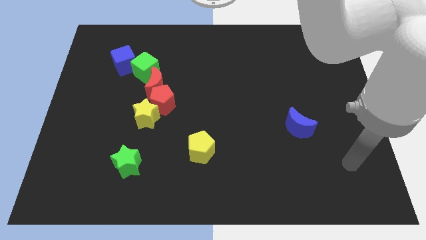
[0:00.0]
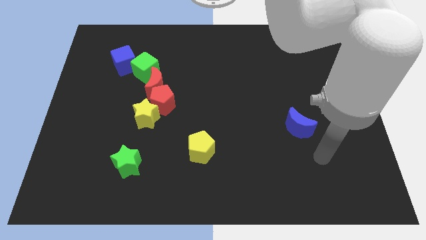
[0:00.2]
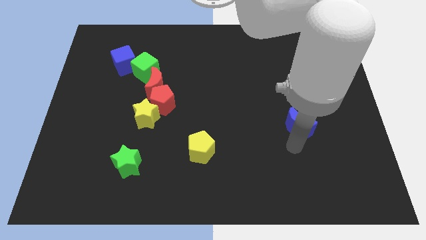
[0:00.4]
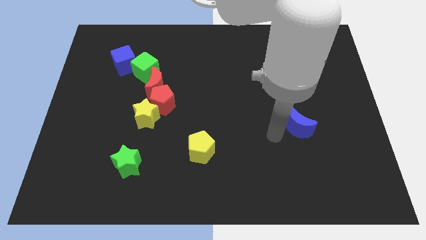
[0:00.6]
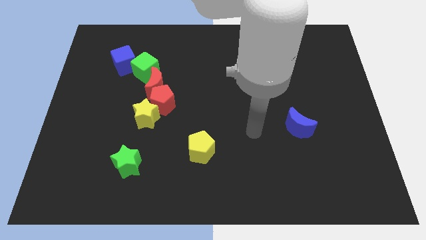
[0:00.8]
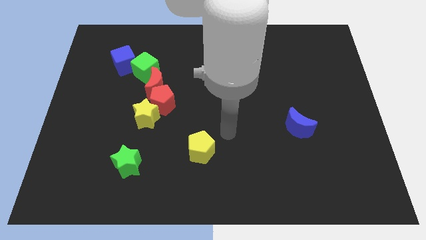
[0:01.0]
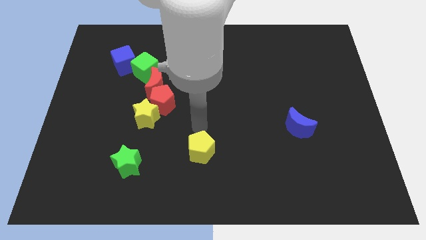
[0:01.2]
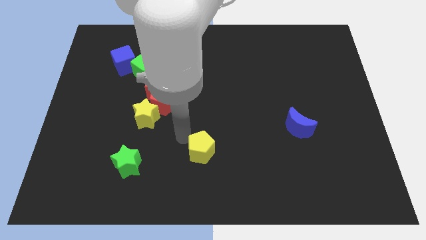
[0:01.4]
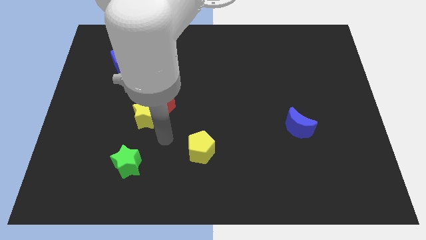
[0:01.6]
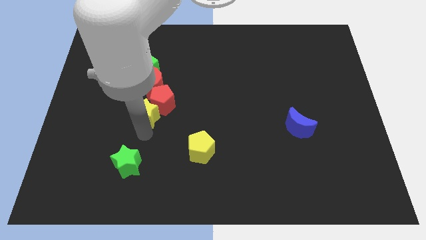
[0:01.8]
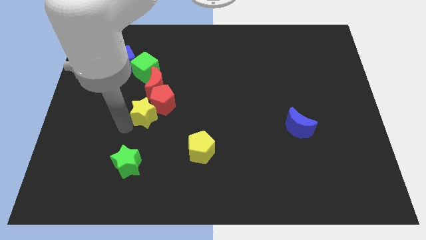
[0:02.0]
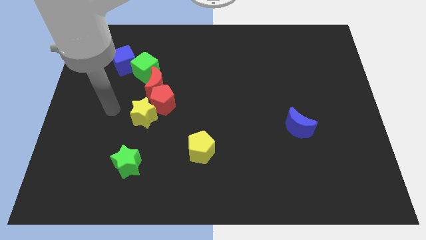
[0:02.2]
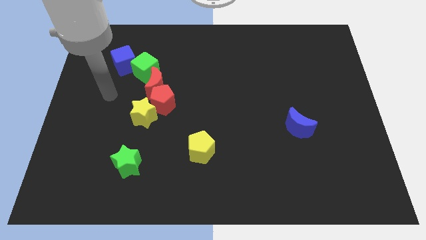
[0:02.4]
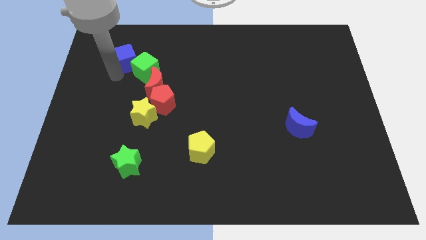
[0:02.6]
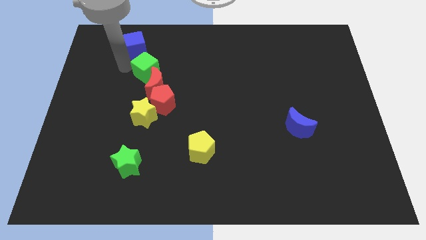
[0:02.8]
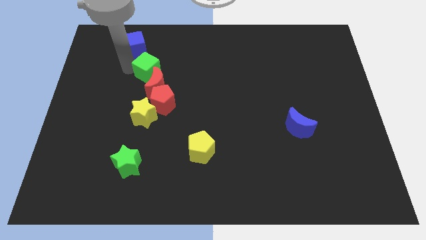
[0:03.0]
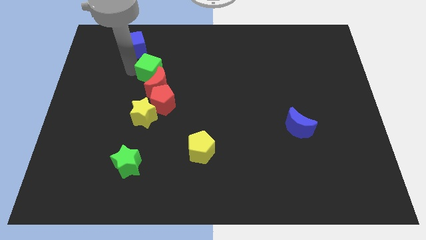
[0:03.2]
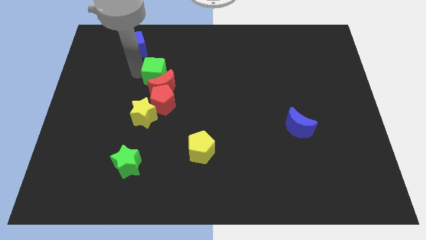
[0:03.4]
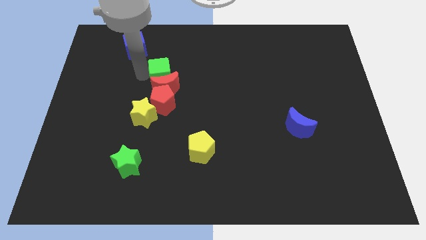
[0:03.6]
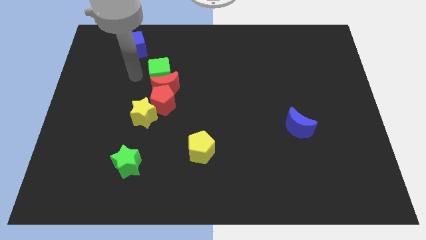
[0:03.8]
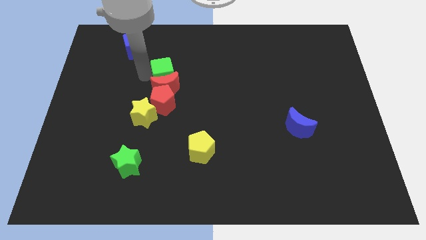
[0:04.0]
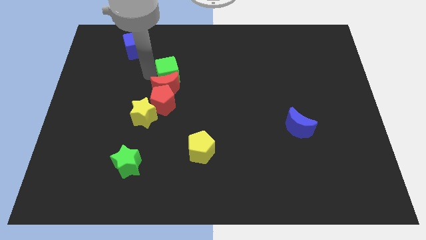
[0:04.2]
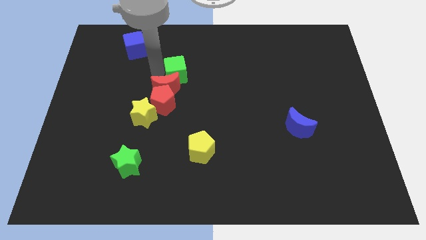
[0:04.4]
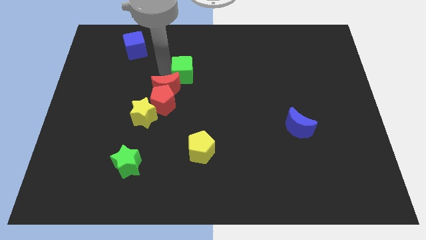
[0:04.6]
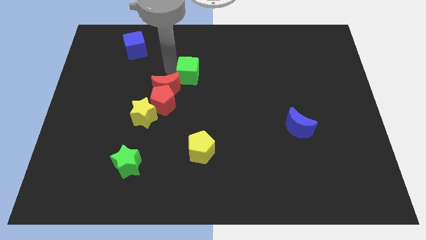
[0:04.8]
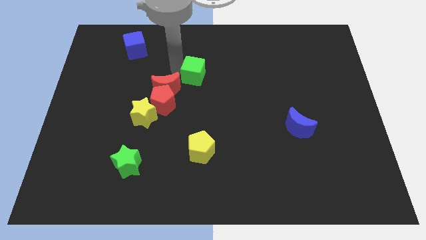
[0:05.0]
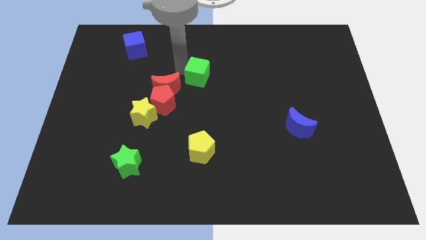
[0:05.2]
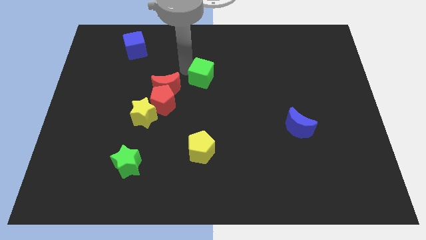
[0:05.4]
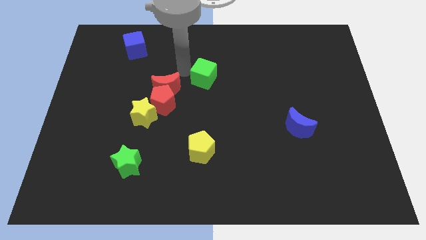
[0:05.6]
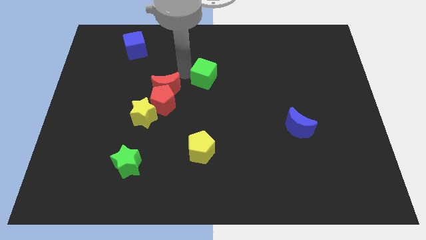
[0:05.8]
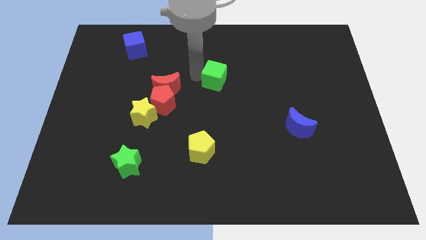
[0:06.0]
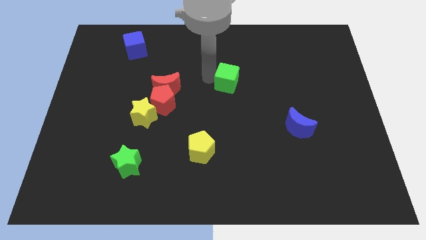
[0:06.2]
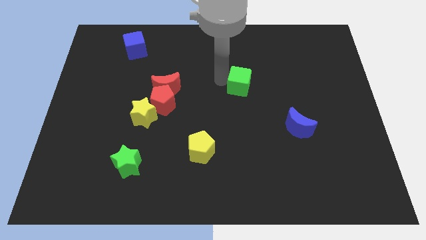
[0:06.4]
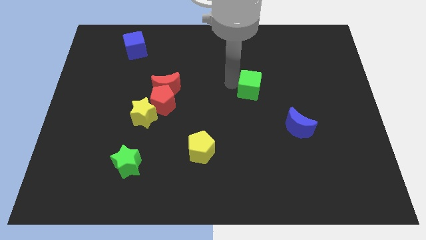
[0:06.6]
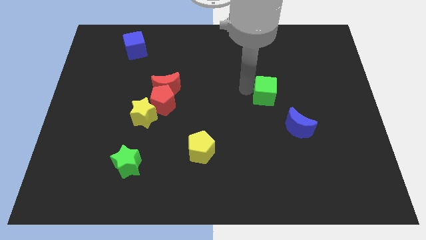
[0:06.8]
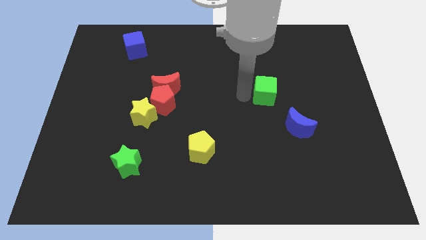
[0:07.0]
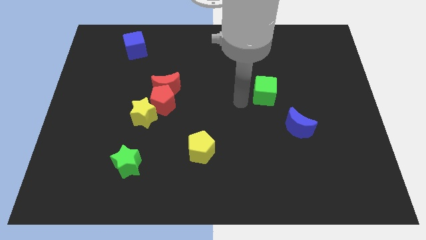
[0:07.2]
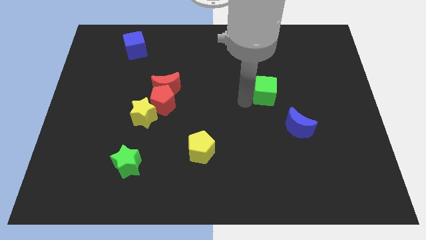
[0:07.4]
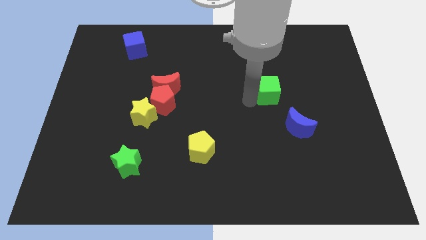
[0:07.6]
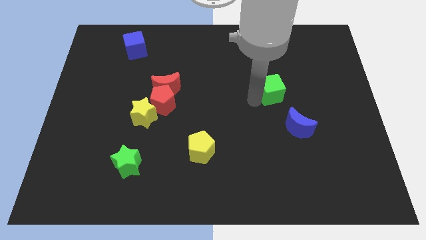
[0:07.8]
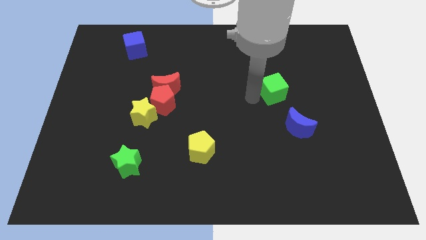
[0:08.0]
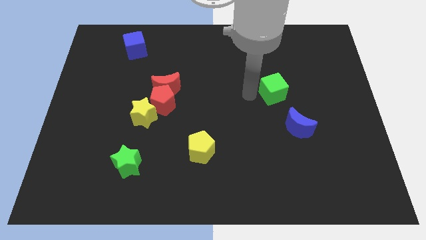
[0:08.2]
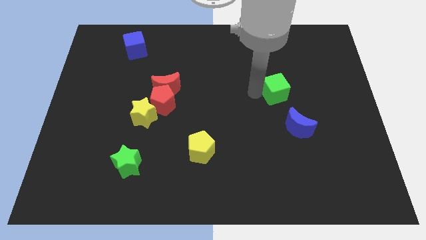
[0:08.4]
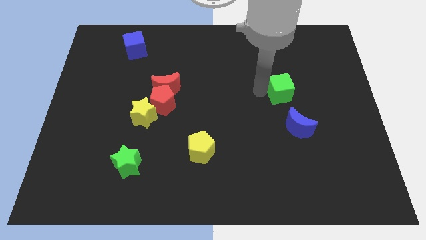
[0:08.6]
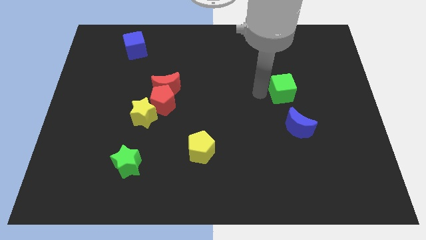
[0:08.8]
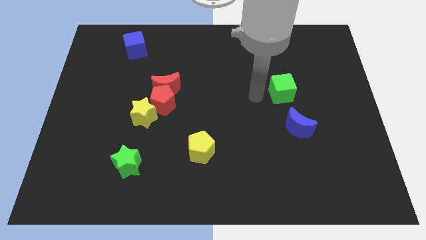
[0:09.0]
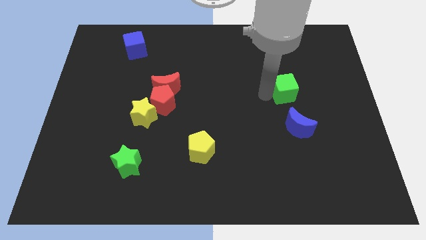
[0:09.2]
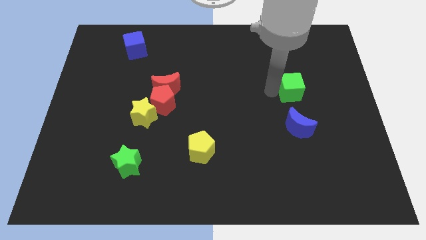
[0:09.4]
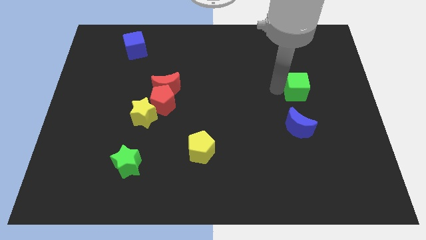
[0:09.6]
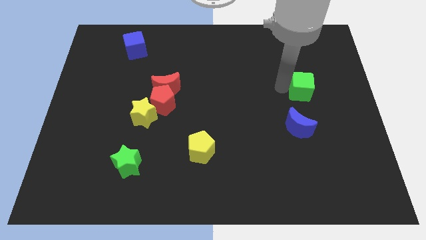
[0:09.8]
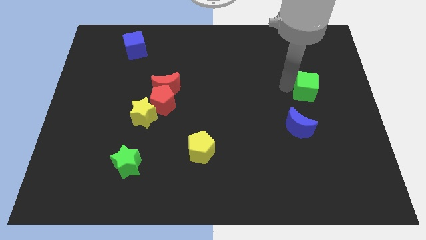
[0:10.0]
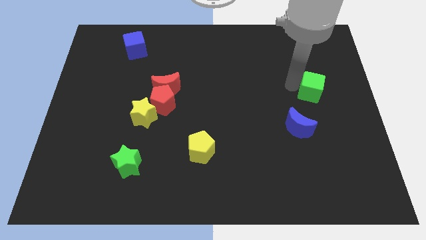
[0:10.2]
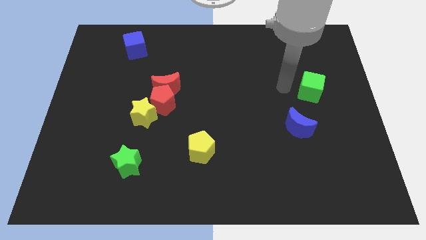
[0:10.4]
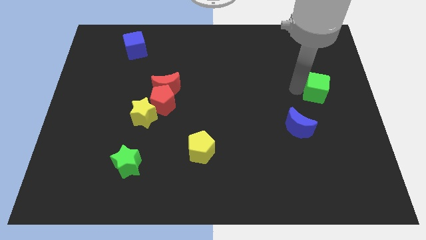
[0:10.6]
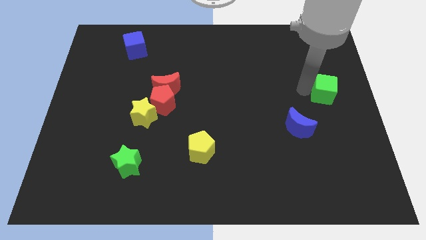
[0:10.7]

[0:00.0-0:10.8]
put the green cube to the right side of the board

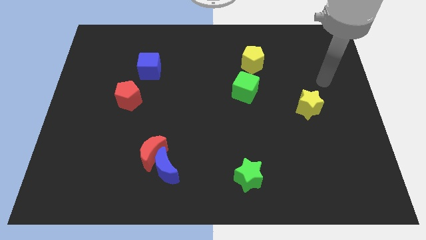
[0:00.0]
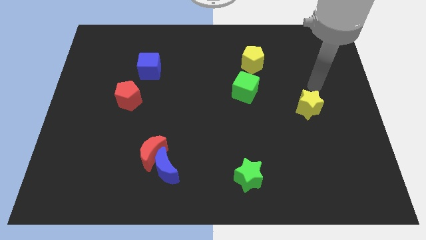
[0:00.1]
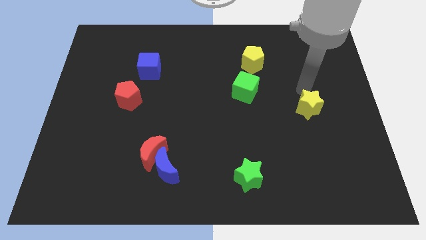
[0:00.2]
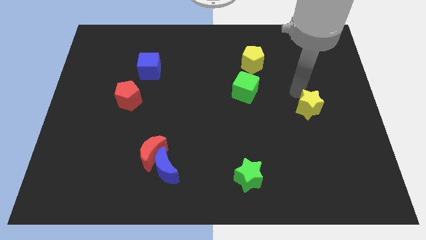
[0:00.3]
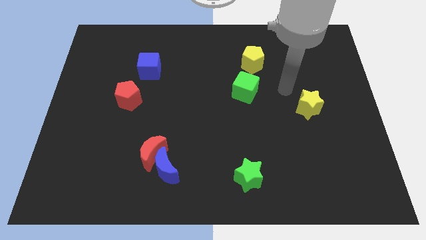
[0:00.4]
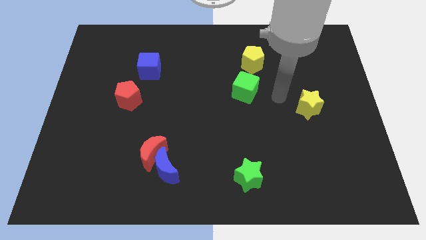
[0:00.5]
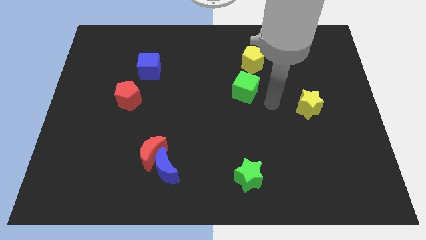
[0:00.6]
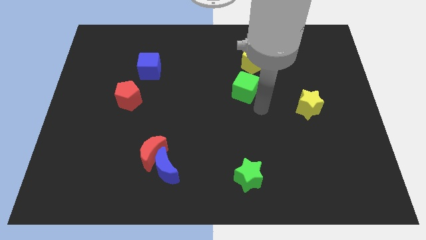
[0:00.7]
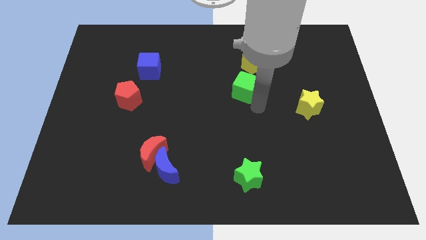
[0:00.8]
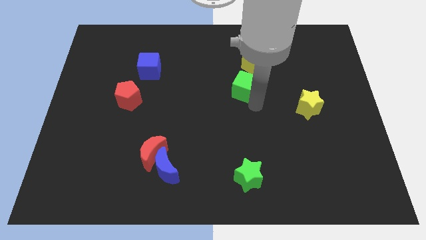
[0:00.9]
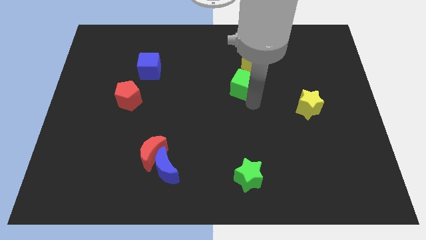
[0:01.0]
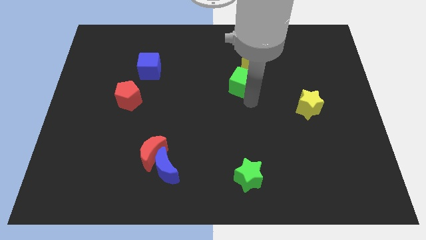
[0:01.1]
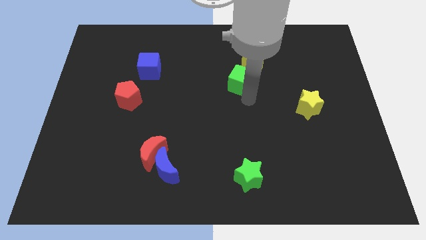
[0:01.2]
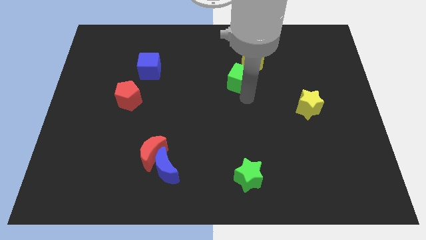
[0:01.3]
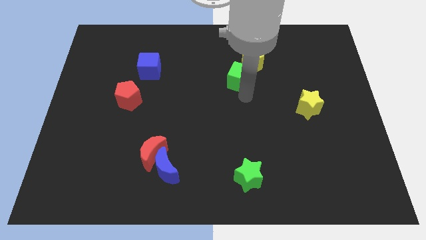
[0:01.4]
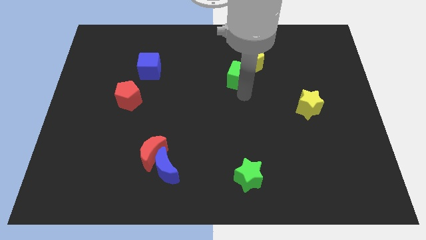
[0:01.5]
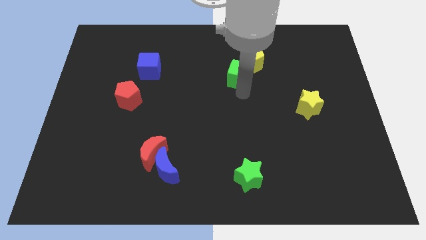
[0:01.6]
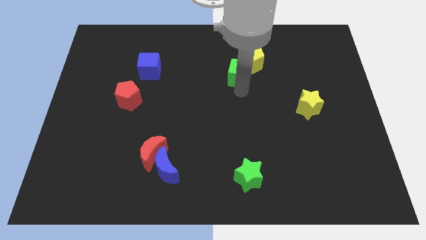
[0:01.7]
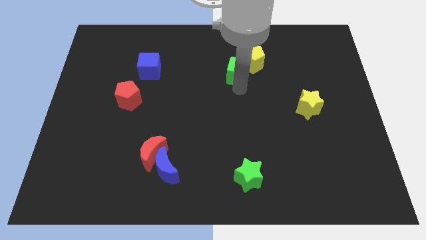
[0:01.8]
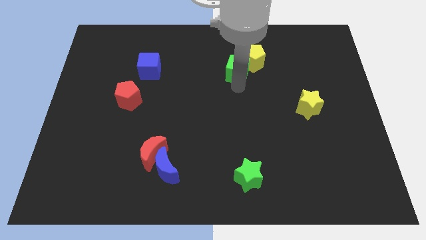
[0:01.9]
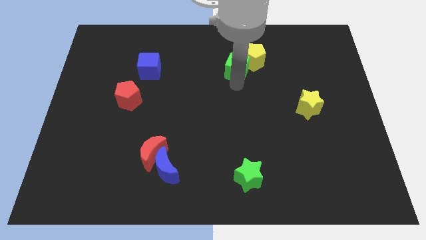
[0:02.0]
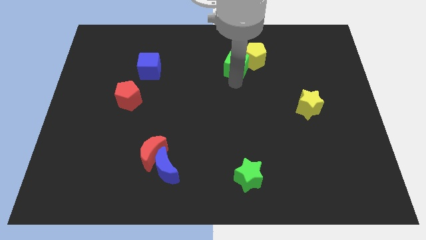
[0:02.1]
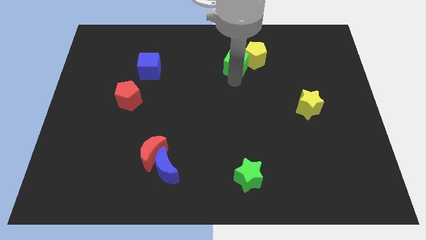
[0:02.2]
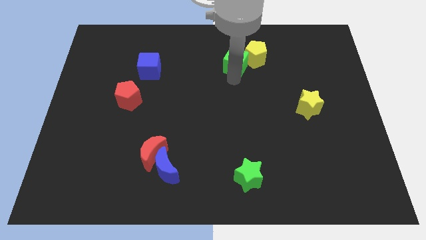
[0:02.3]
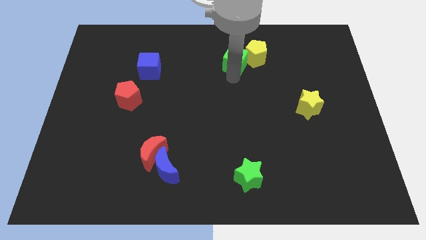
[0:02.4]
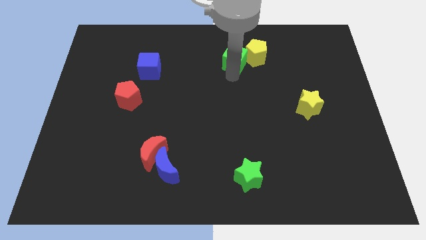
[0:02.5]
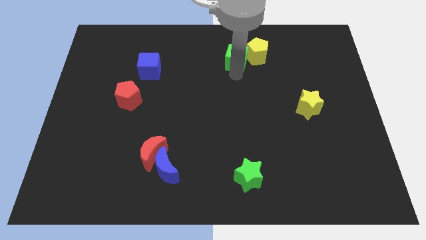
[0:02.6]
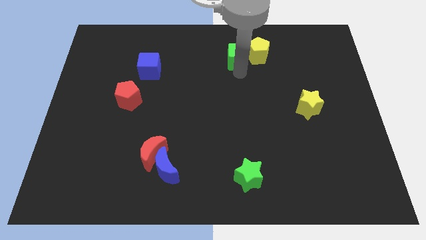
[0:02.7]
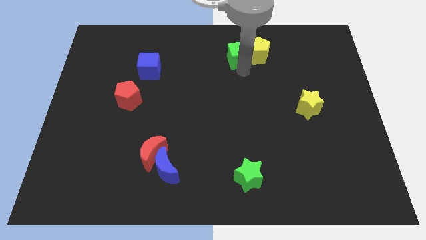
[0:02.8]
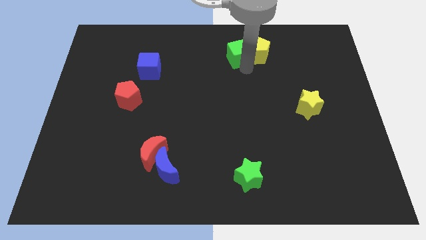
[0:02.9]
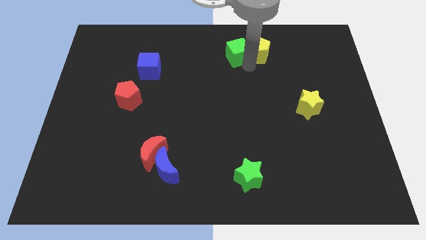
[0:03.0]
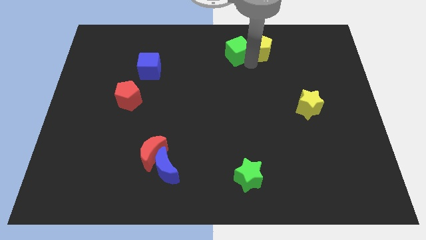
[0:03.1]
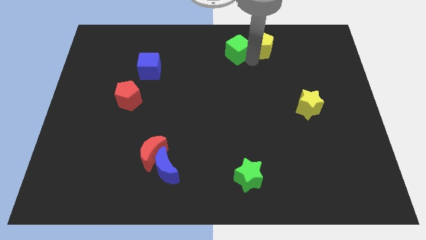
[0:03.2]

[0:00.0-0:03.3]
push the green cube to the towards your base
